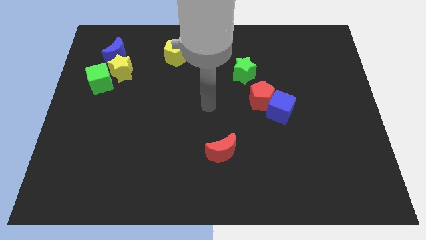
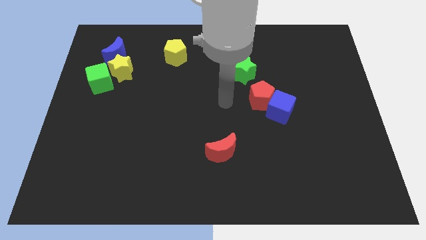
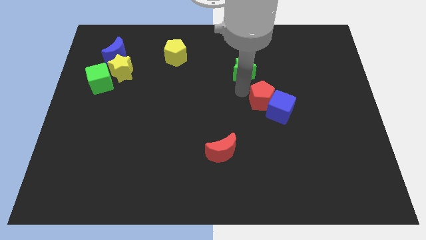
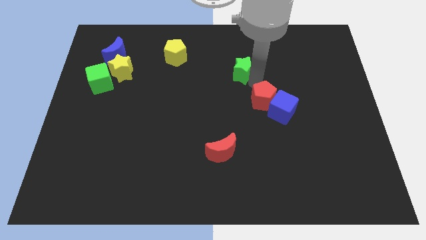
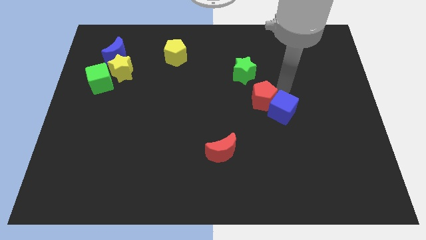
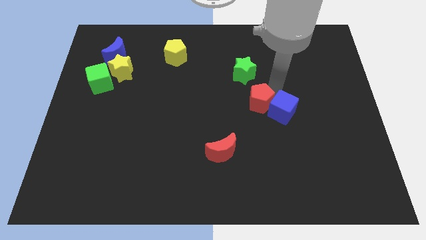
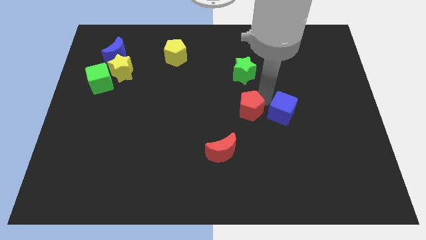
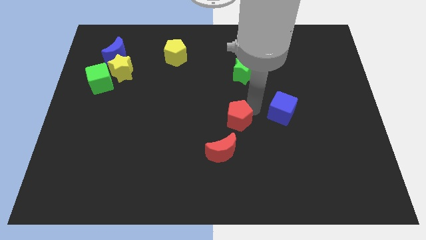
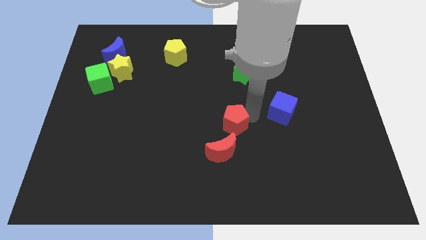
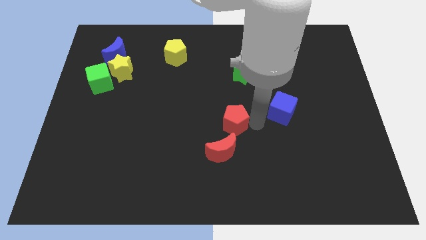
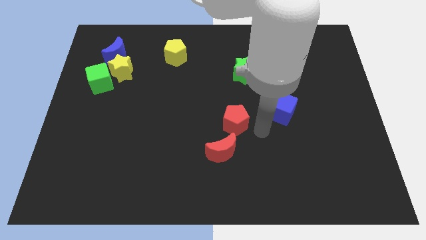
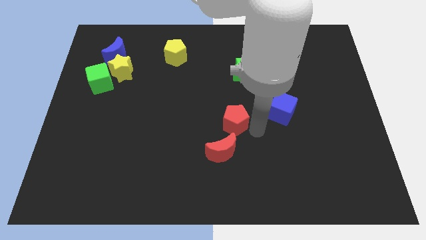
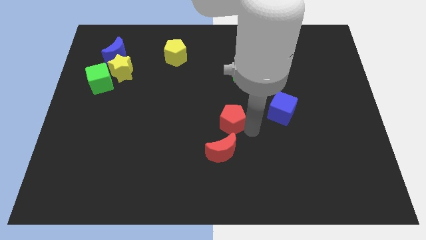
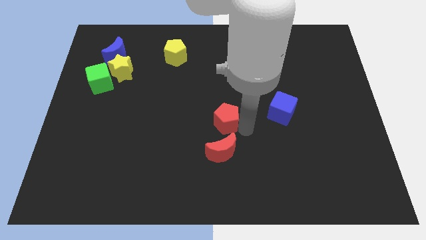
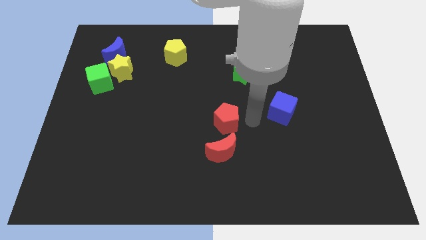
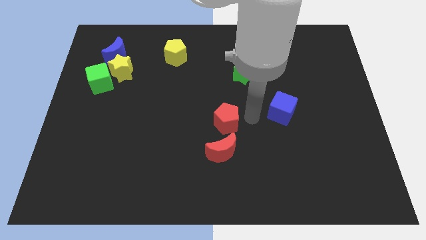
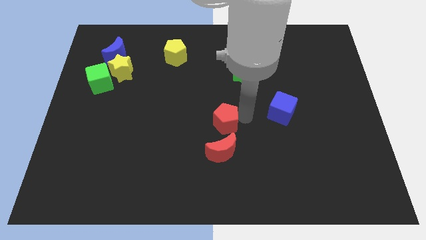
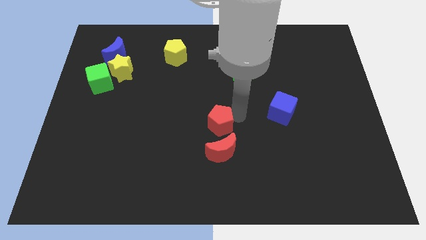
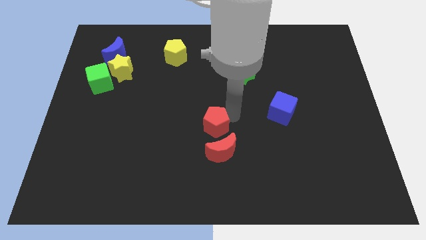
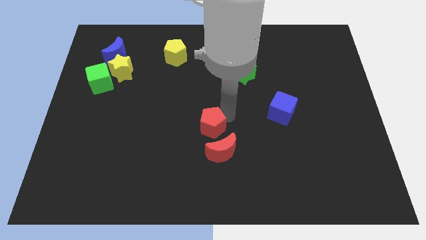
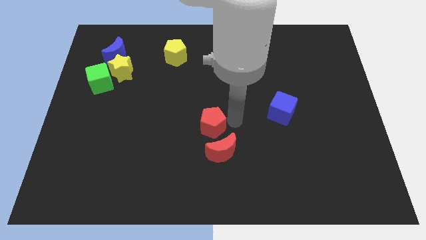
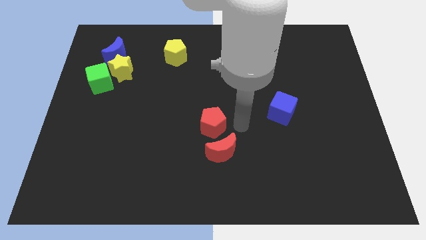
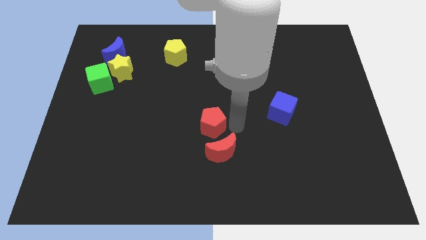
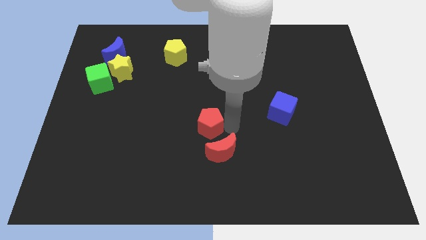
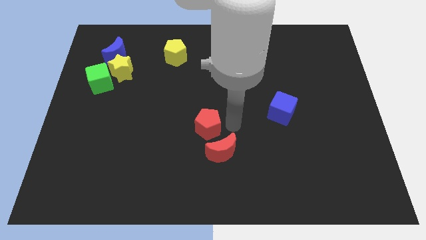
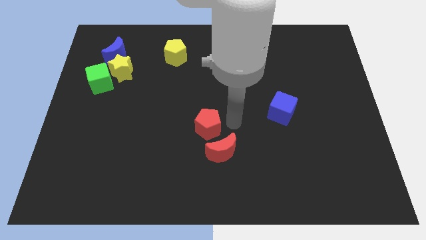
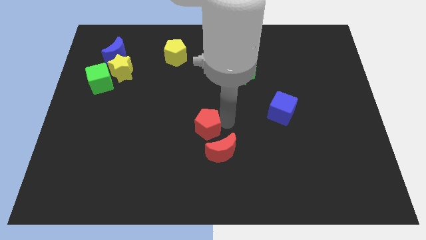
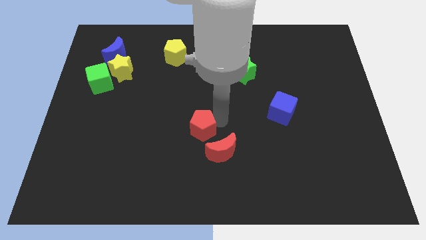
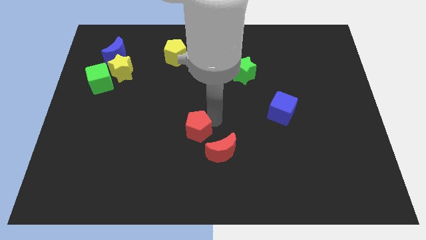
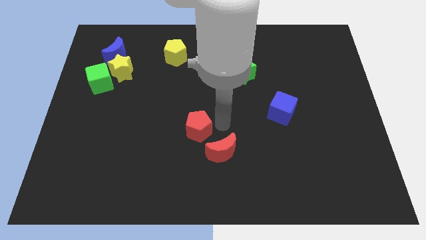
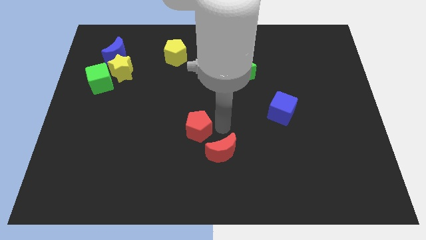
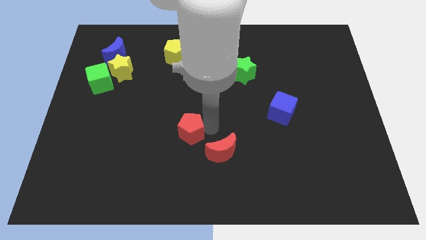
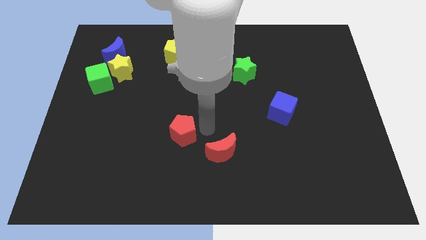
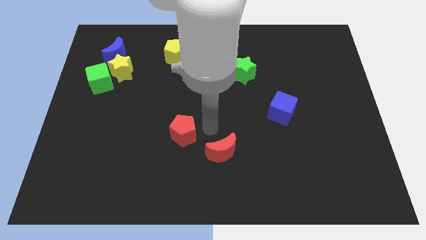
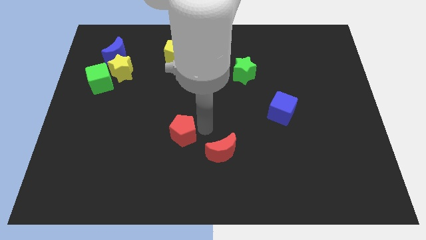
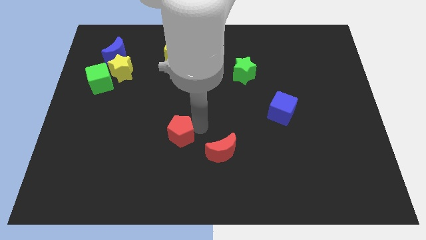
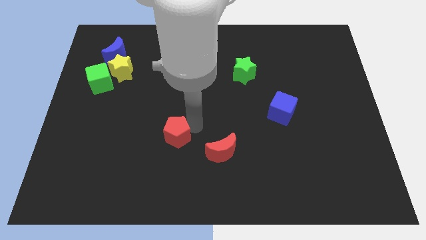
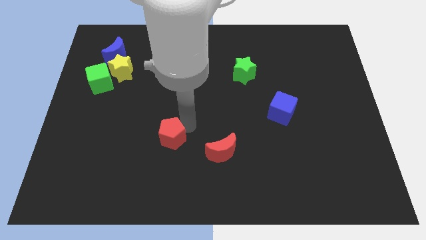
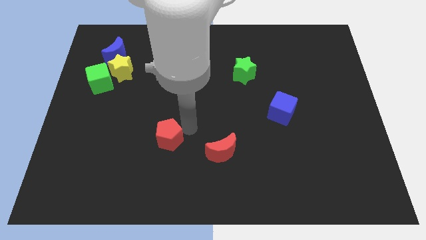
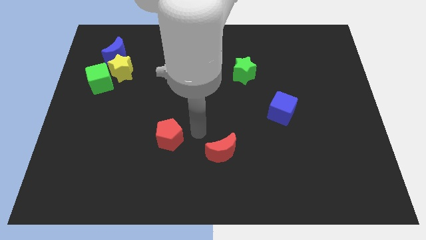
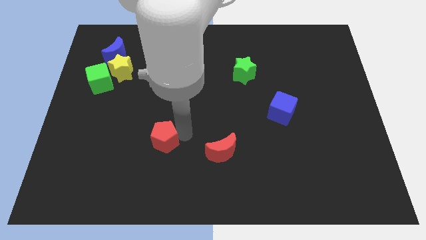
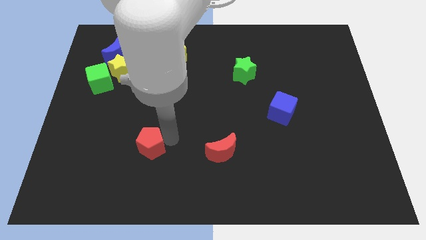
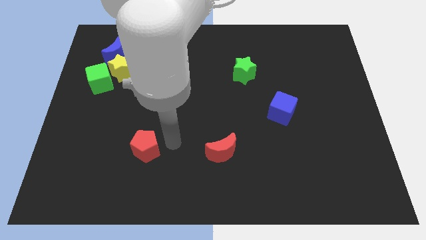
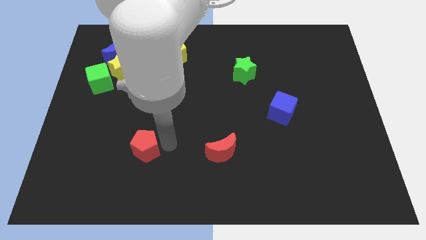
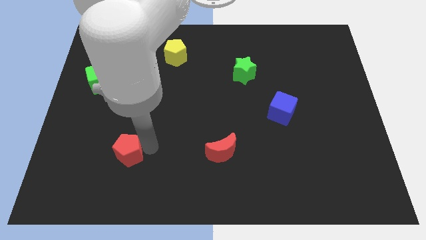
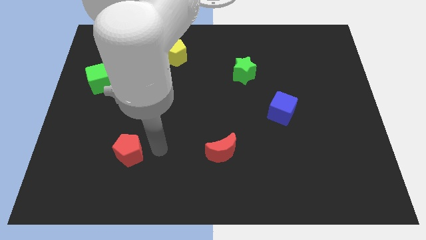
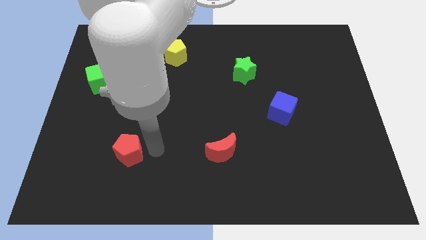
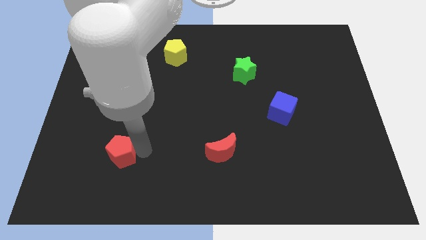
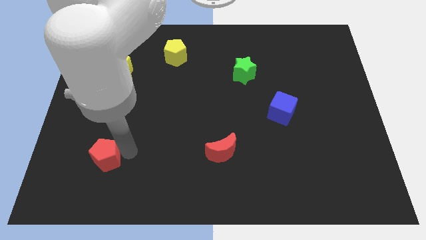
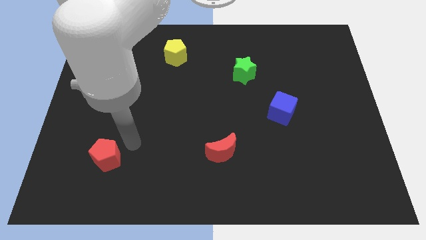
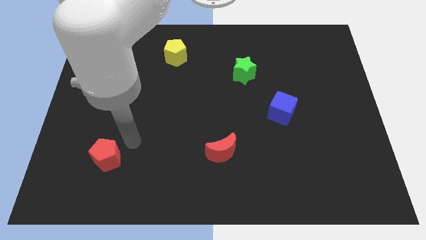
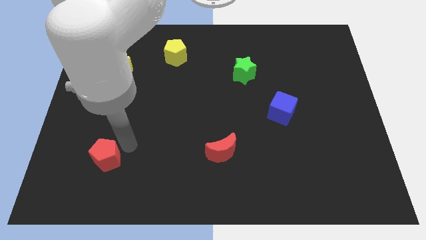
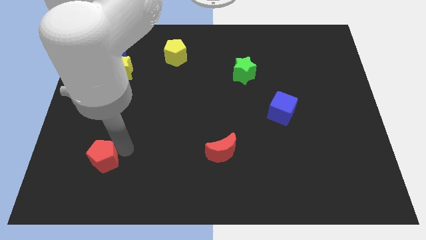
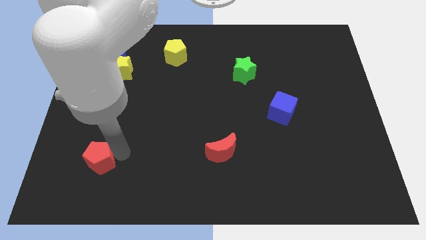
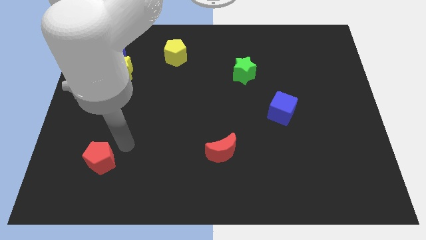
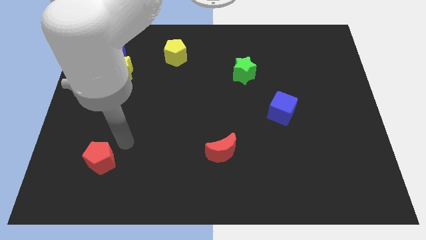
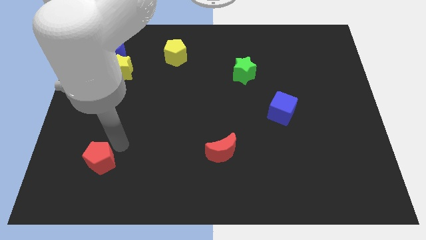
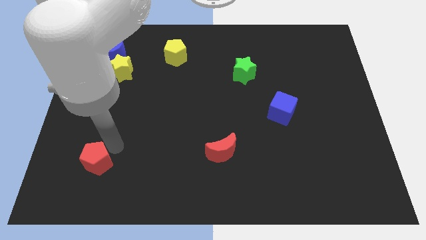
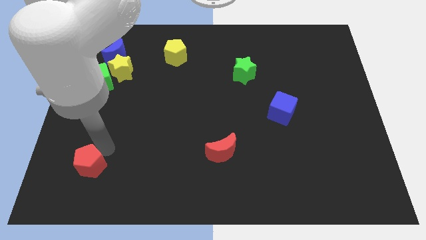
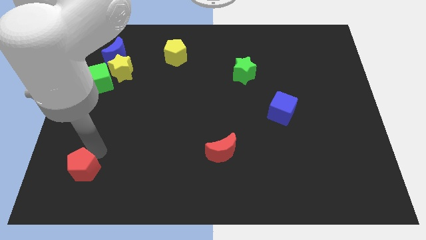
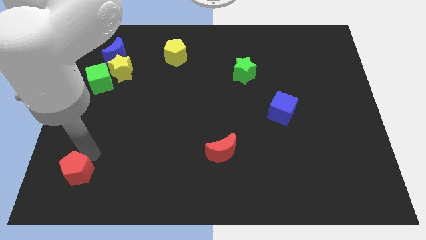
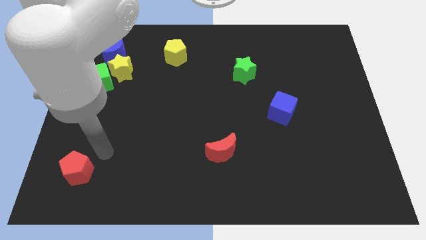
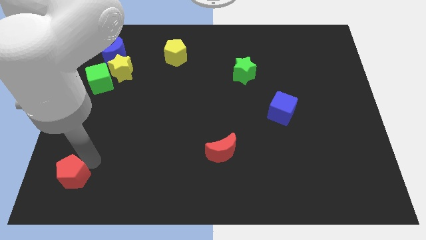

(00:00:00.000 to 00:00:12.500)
move the red pentagon to the bottom left corner

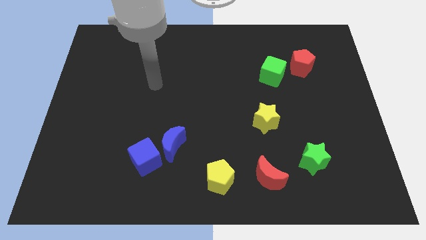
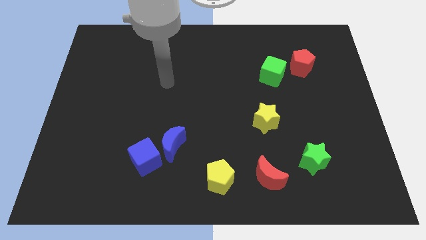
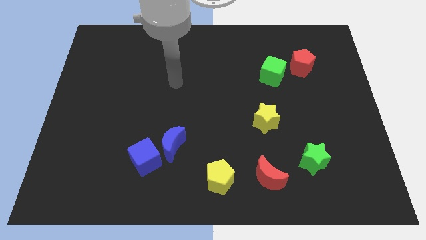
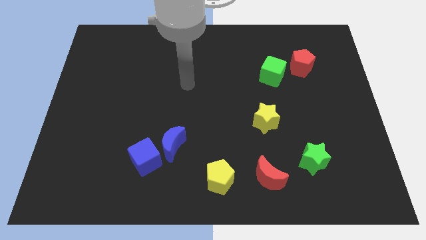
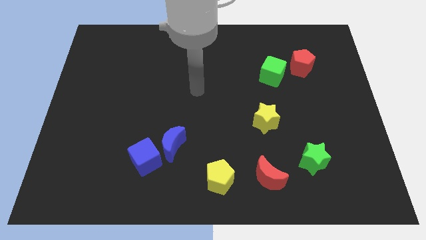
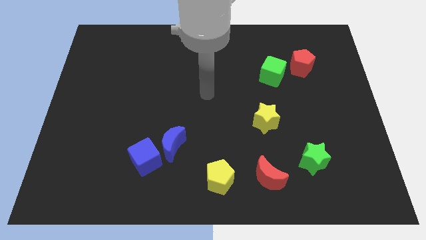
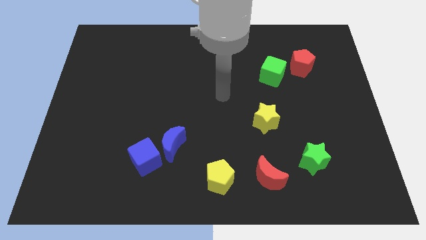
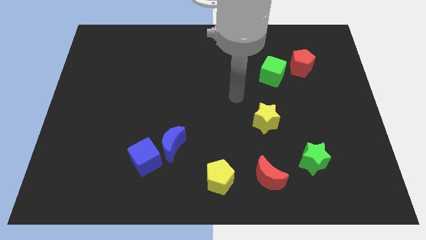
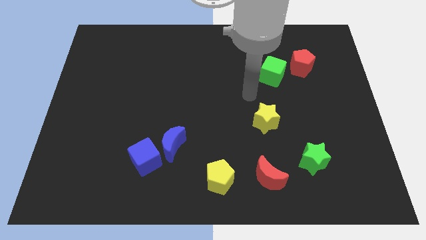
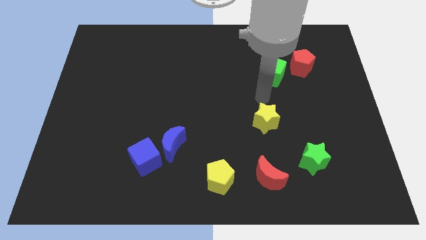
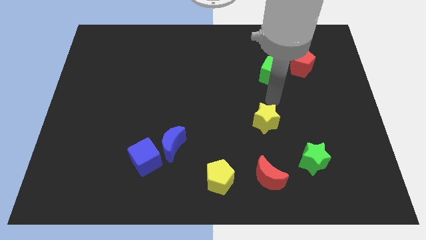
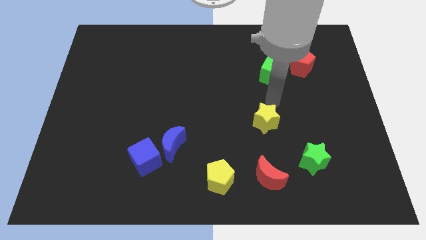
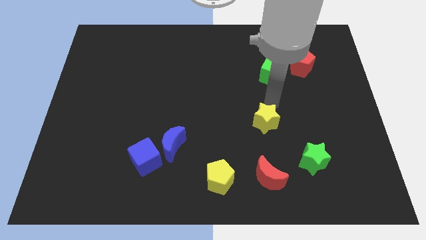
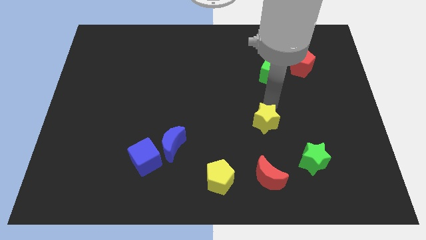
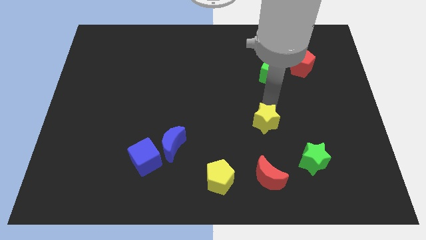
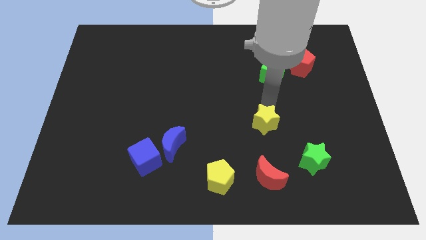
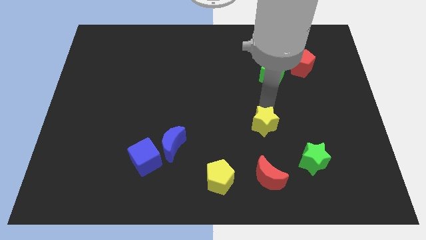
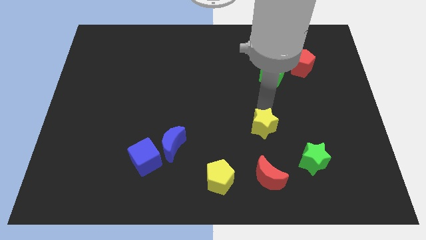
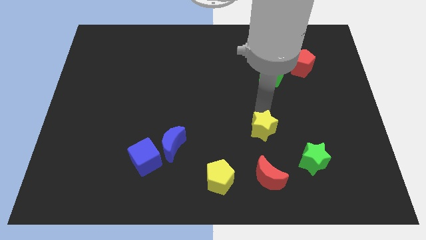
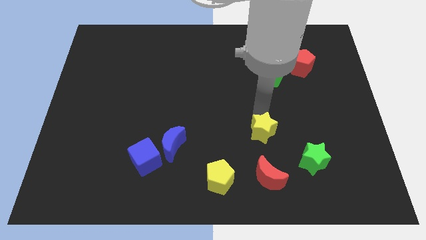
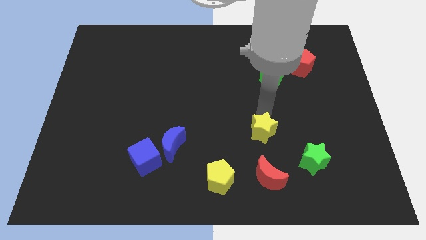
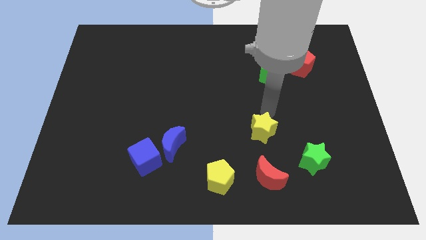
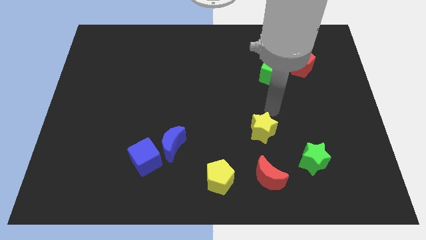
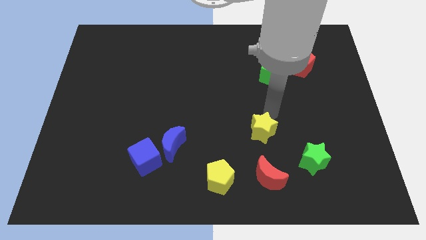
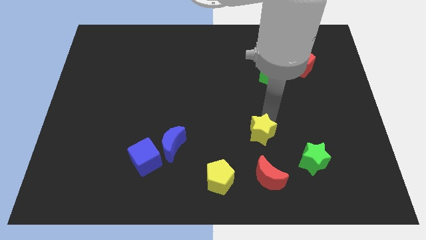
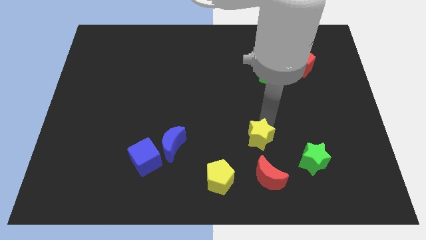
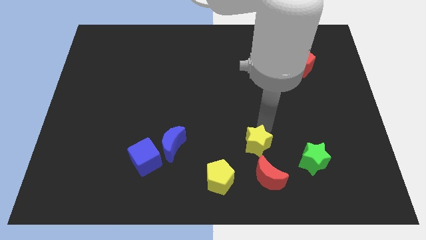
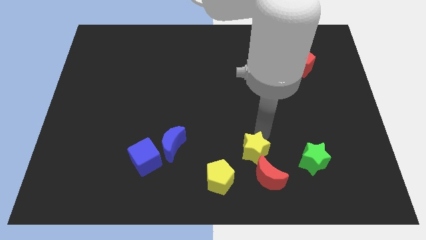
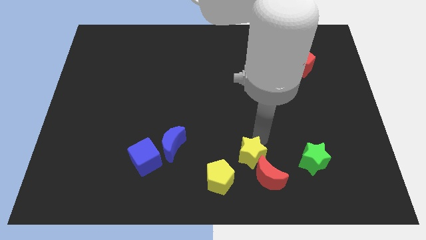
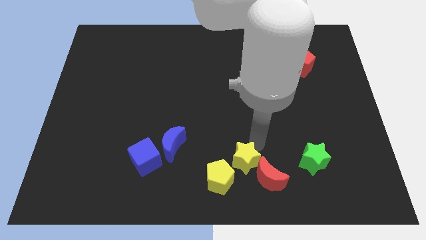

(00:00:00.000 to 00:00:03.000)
slide the yellow star to the bottom side
